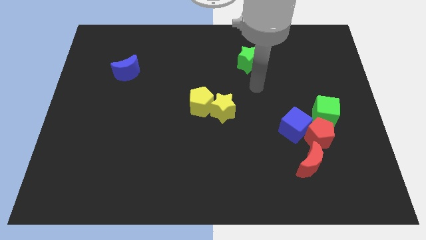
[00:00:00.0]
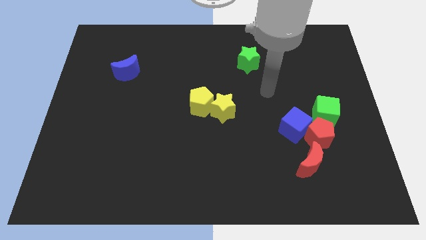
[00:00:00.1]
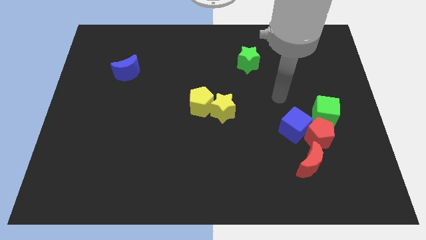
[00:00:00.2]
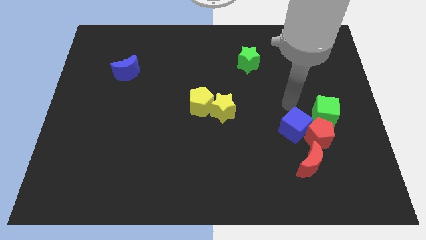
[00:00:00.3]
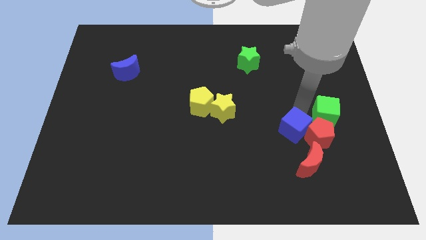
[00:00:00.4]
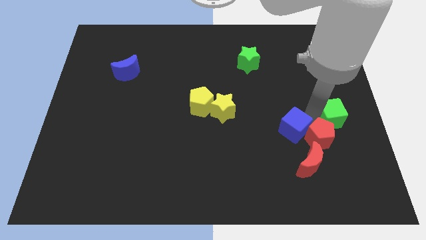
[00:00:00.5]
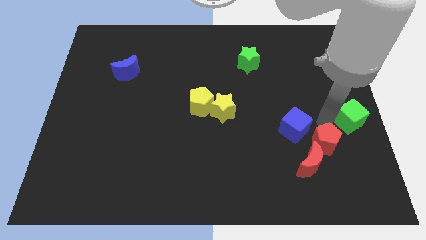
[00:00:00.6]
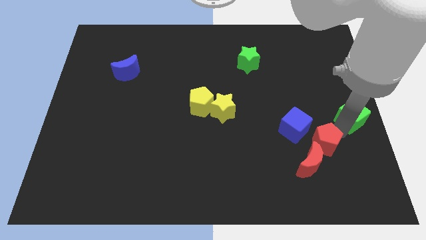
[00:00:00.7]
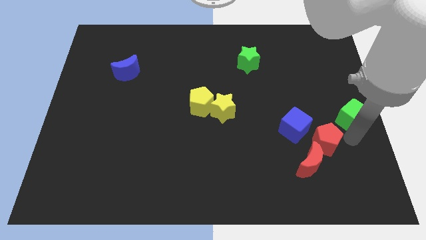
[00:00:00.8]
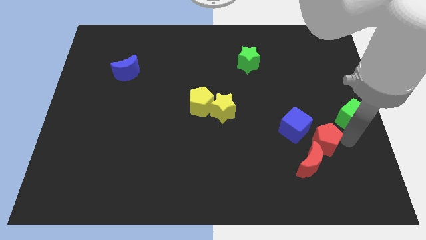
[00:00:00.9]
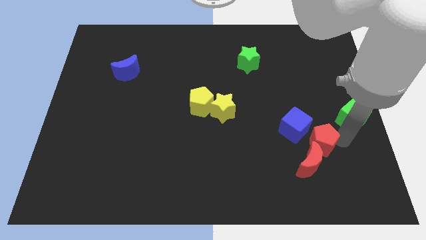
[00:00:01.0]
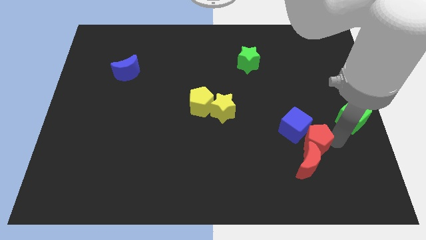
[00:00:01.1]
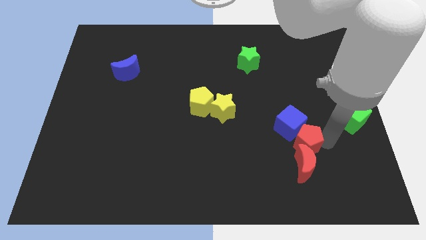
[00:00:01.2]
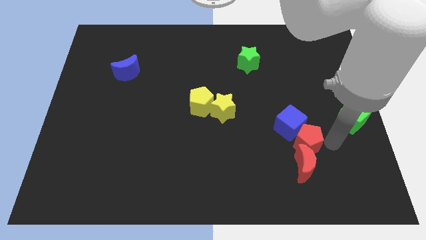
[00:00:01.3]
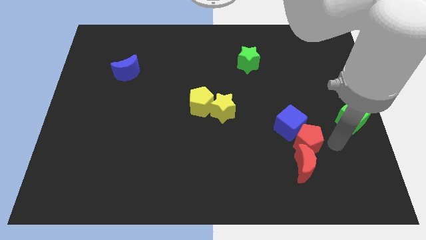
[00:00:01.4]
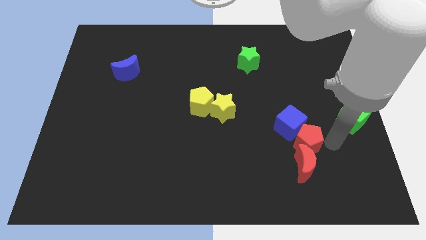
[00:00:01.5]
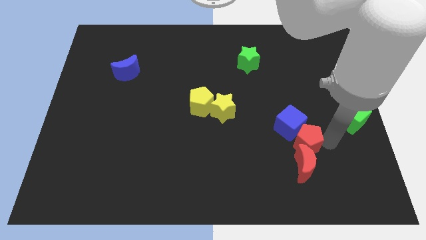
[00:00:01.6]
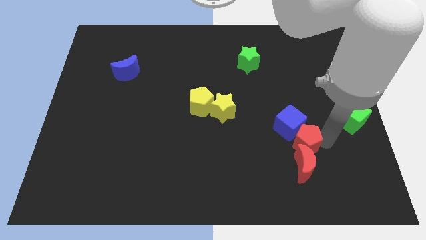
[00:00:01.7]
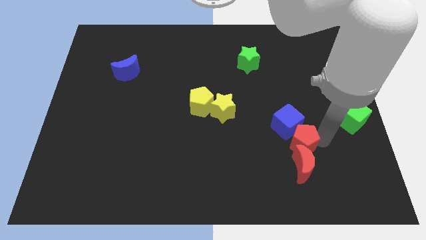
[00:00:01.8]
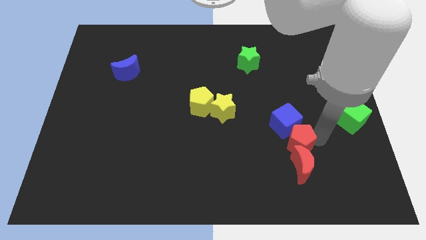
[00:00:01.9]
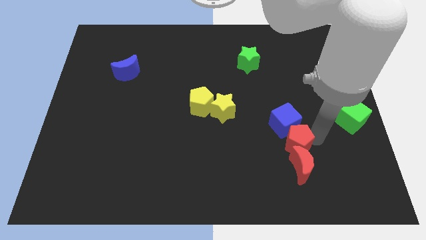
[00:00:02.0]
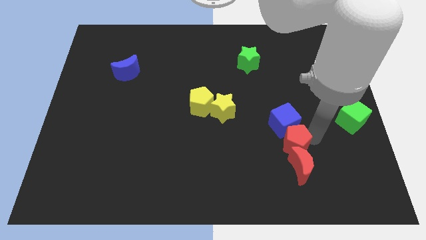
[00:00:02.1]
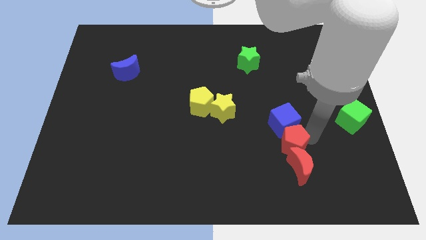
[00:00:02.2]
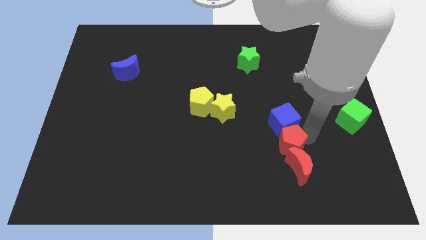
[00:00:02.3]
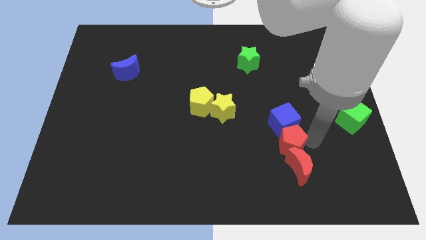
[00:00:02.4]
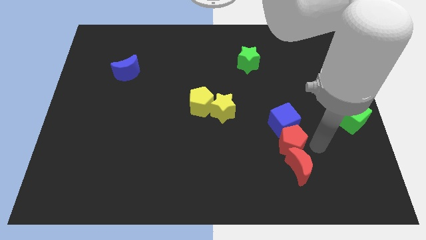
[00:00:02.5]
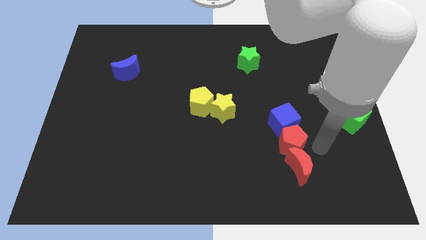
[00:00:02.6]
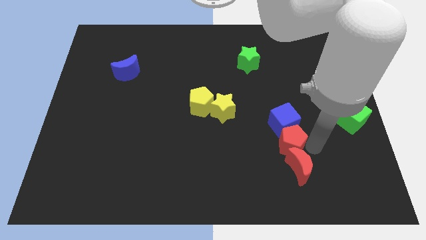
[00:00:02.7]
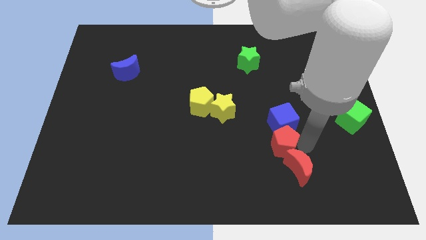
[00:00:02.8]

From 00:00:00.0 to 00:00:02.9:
slide the red pentagon left a bit

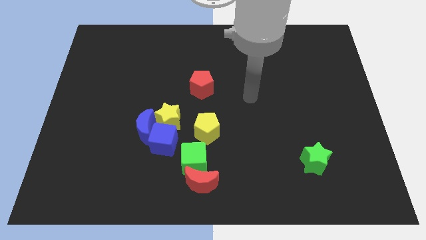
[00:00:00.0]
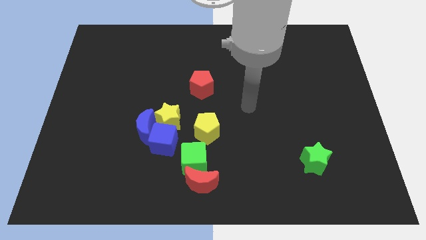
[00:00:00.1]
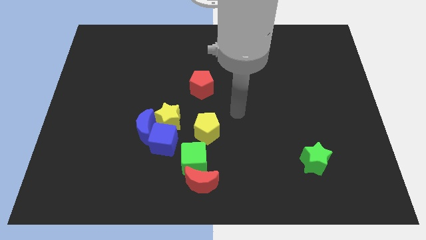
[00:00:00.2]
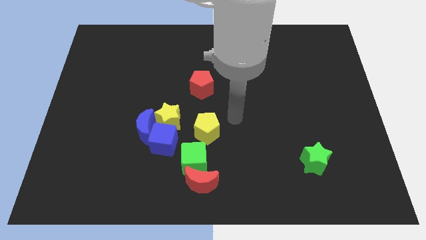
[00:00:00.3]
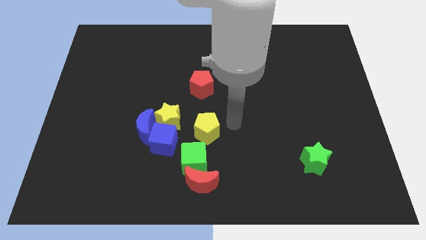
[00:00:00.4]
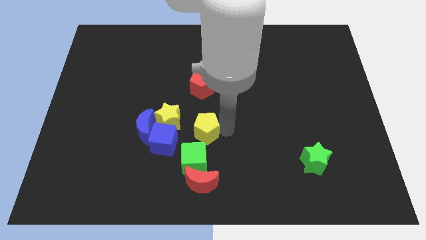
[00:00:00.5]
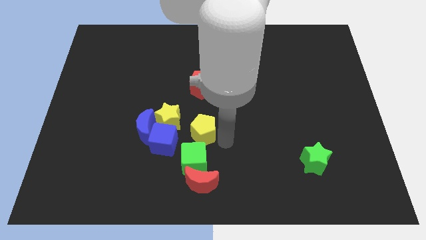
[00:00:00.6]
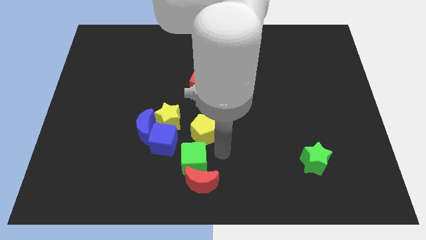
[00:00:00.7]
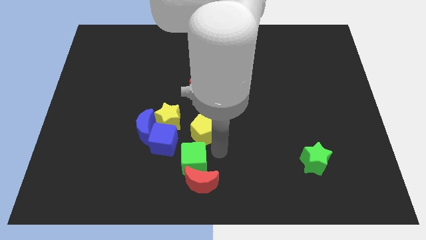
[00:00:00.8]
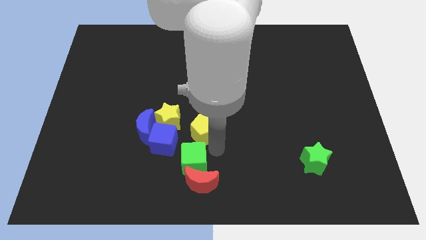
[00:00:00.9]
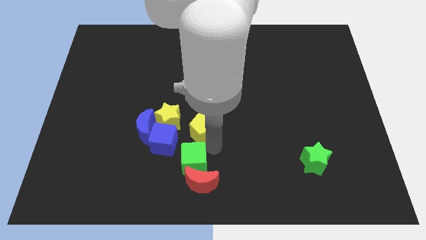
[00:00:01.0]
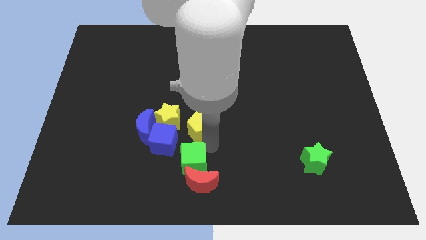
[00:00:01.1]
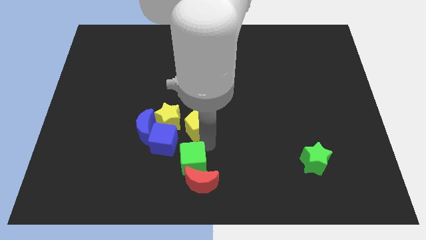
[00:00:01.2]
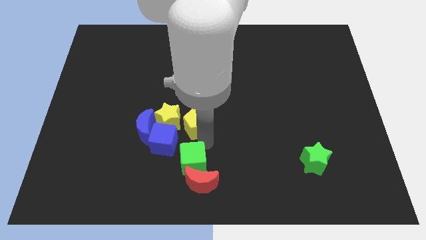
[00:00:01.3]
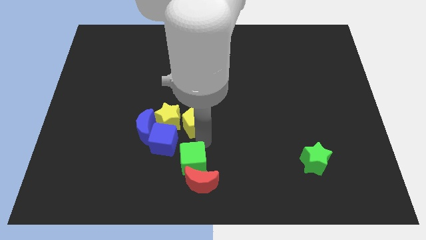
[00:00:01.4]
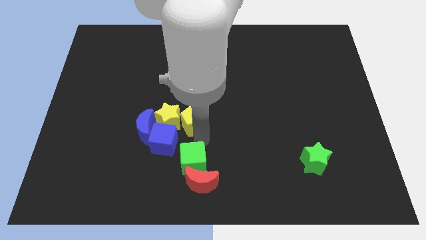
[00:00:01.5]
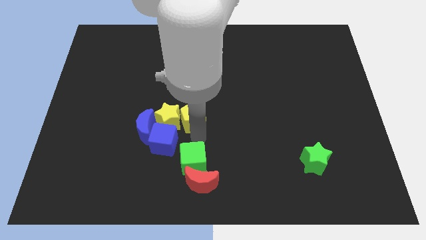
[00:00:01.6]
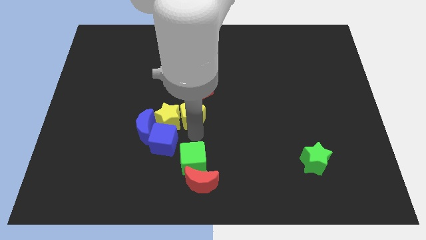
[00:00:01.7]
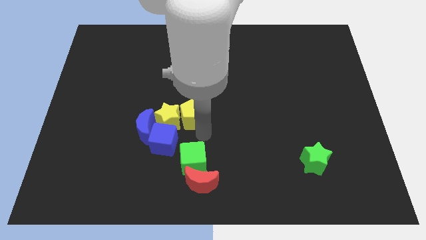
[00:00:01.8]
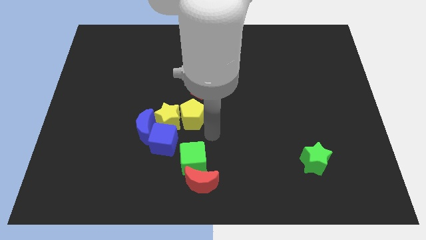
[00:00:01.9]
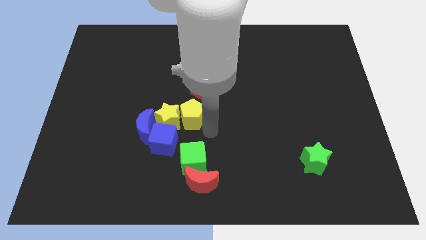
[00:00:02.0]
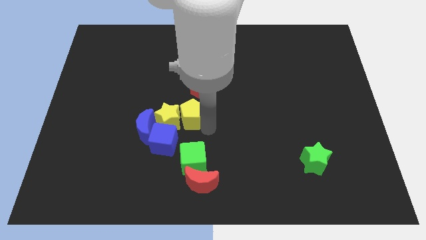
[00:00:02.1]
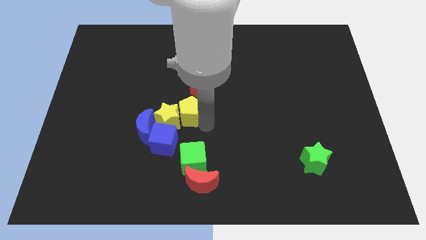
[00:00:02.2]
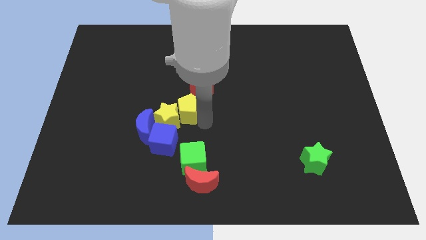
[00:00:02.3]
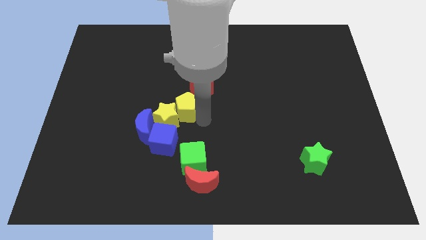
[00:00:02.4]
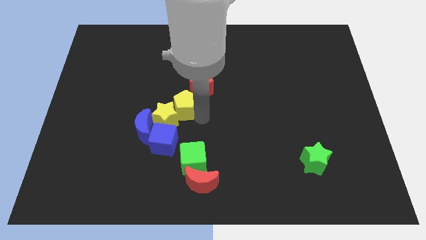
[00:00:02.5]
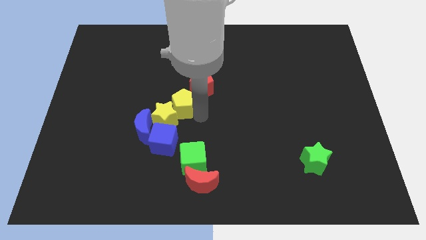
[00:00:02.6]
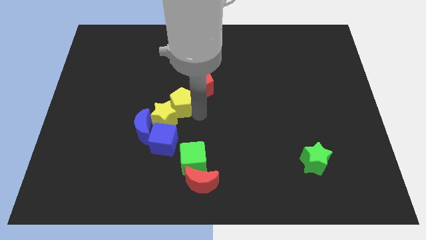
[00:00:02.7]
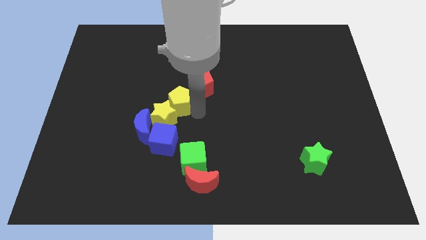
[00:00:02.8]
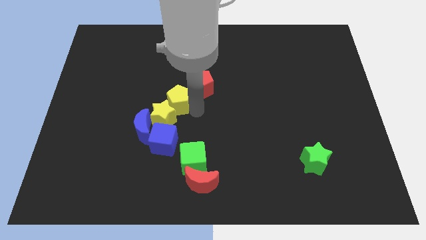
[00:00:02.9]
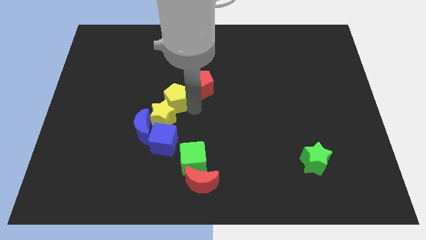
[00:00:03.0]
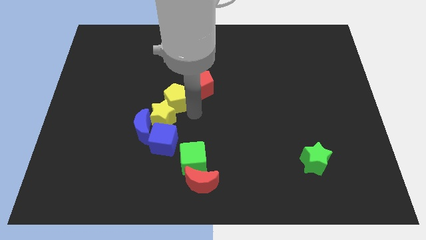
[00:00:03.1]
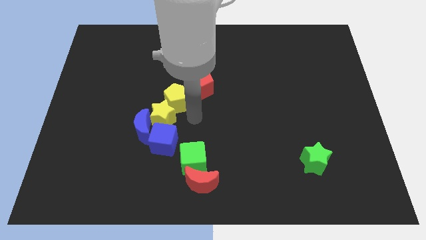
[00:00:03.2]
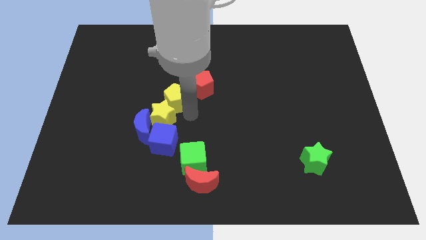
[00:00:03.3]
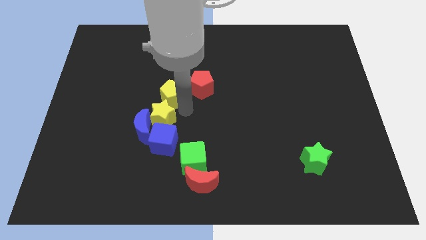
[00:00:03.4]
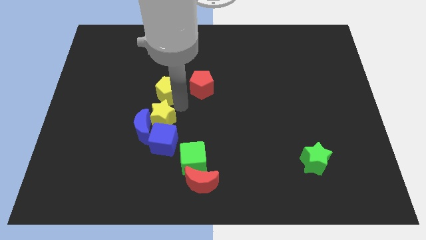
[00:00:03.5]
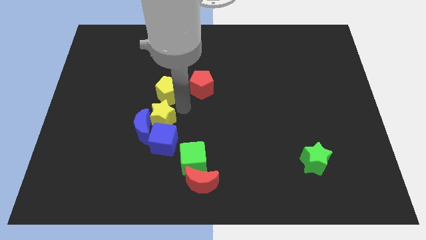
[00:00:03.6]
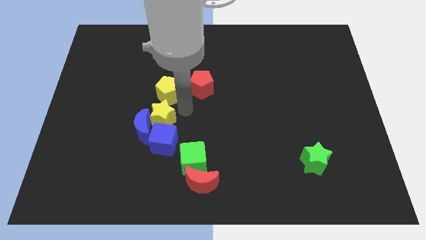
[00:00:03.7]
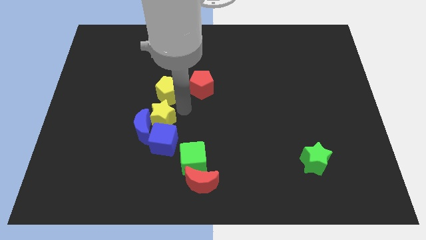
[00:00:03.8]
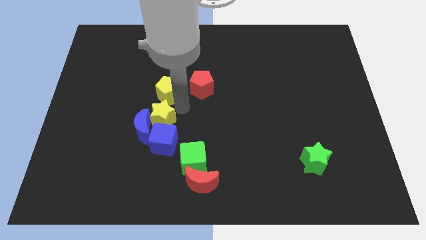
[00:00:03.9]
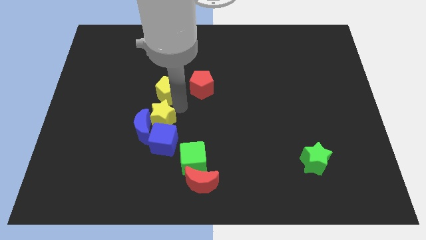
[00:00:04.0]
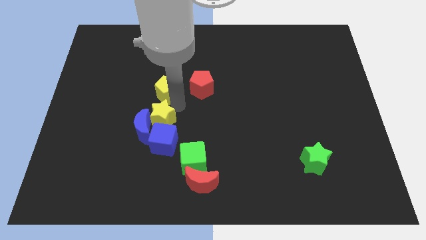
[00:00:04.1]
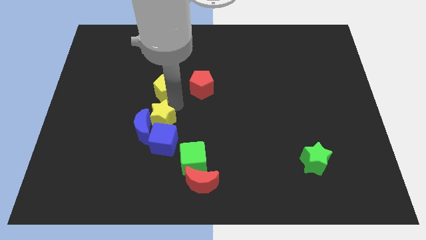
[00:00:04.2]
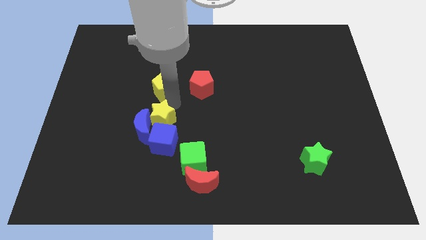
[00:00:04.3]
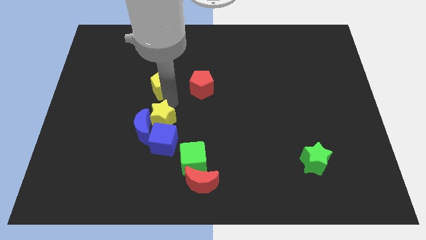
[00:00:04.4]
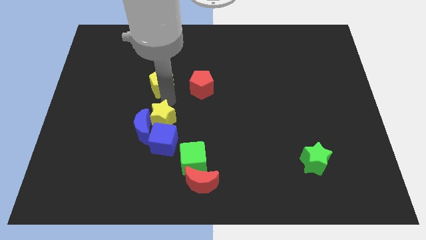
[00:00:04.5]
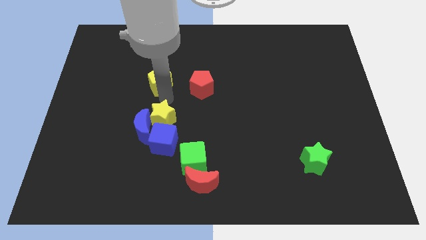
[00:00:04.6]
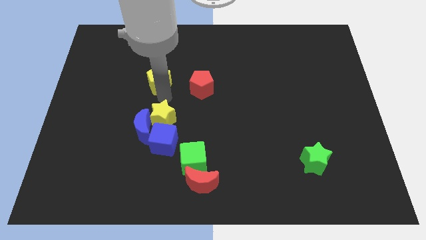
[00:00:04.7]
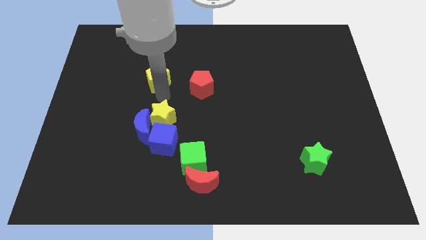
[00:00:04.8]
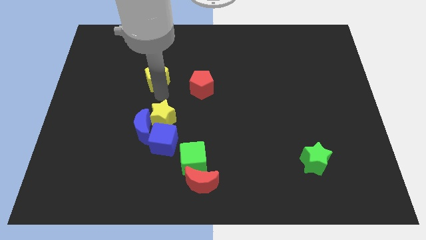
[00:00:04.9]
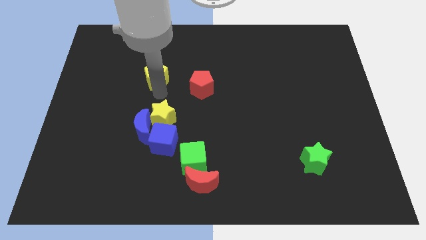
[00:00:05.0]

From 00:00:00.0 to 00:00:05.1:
move the yellow pentagon up and then left

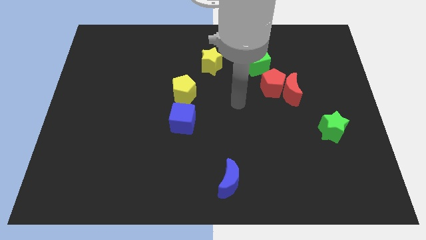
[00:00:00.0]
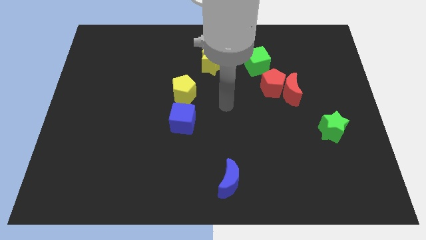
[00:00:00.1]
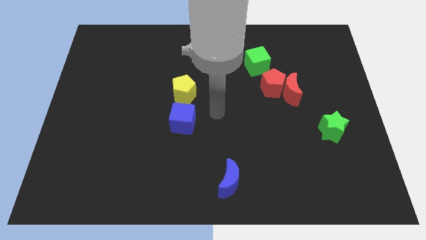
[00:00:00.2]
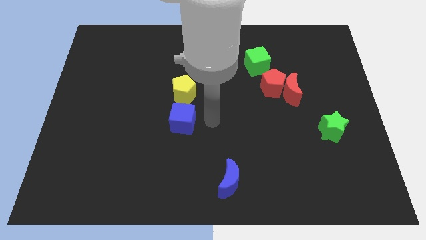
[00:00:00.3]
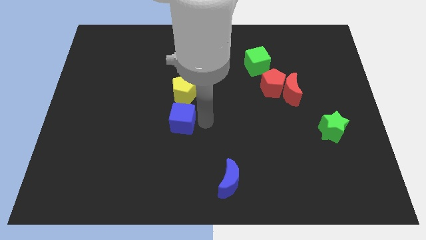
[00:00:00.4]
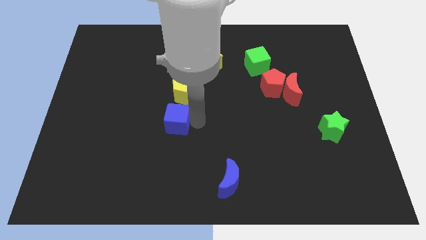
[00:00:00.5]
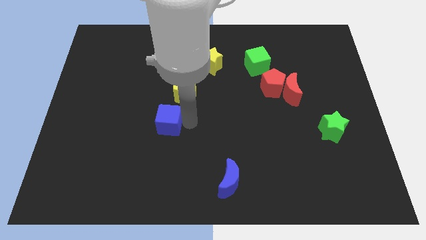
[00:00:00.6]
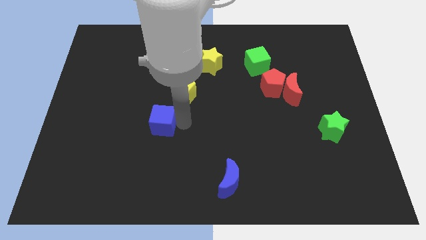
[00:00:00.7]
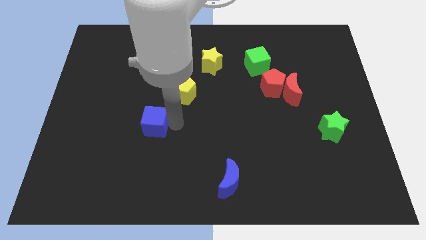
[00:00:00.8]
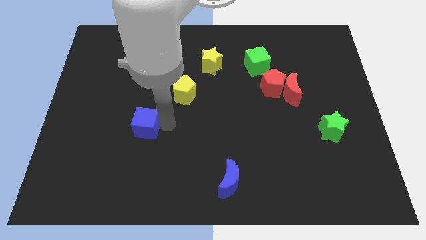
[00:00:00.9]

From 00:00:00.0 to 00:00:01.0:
push the blue cube slightly left
